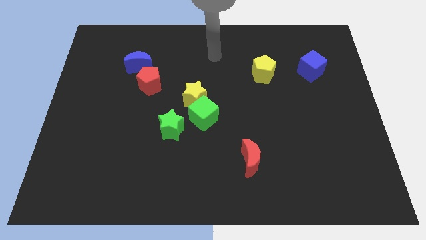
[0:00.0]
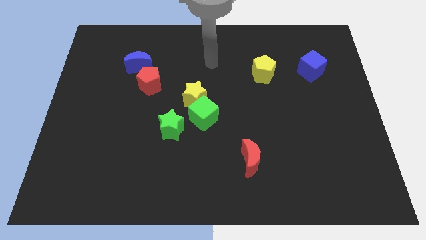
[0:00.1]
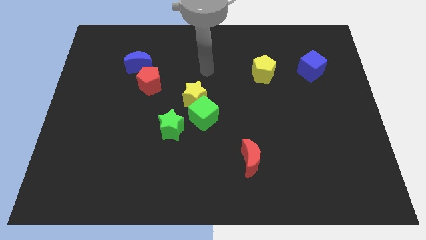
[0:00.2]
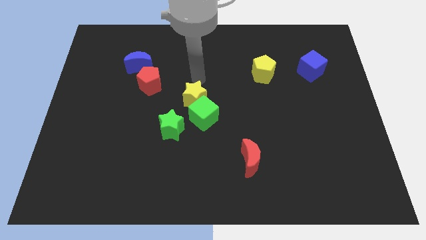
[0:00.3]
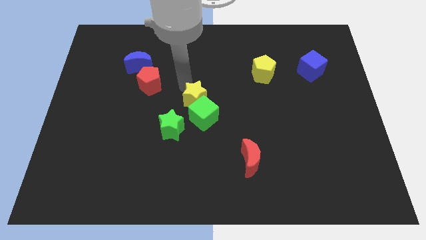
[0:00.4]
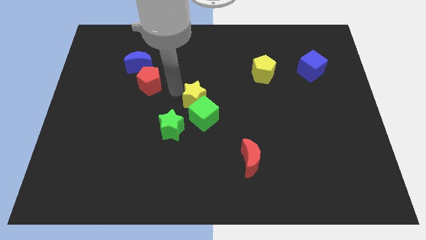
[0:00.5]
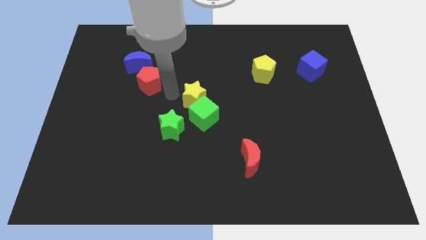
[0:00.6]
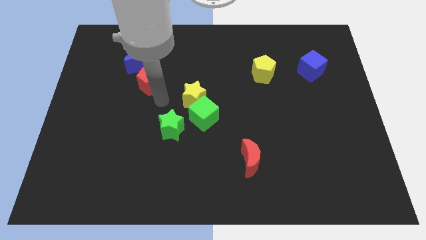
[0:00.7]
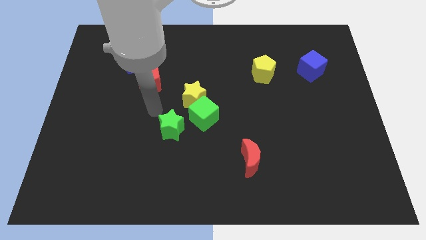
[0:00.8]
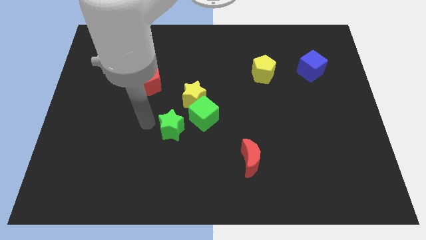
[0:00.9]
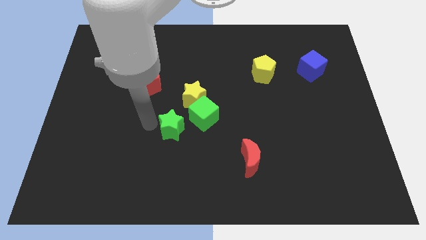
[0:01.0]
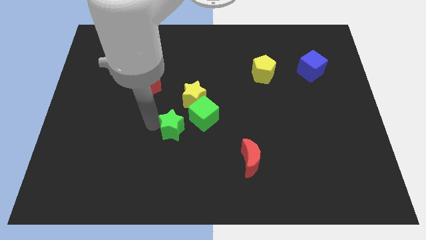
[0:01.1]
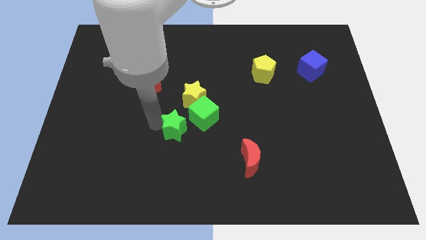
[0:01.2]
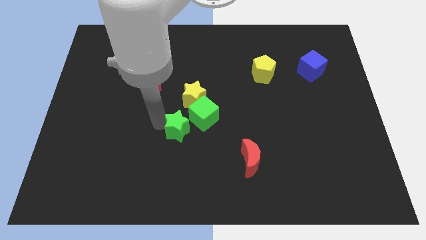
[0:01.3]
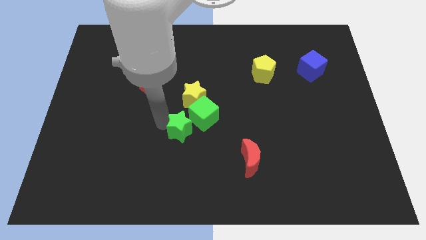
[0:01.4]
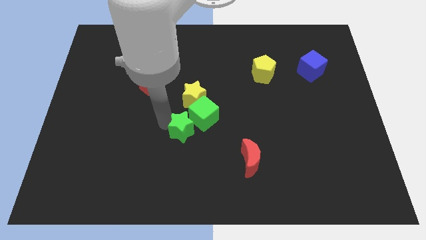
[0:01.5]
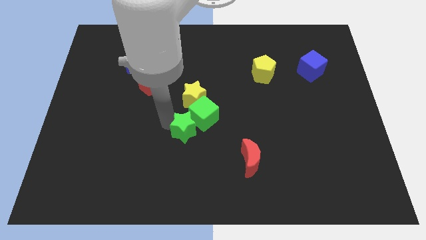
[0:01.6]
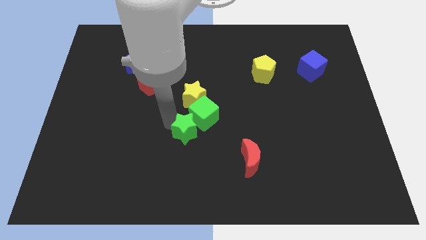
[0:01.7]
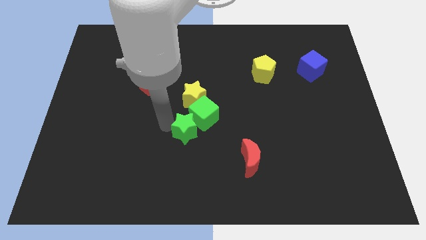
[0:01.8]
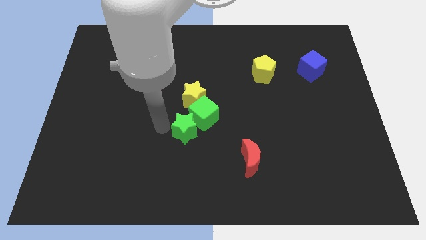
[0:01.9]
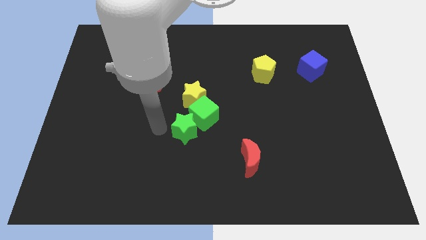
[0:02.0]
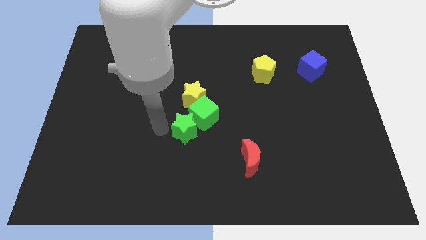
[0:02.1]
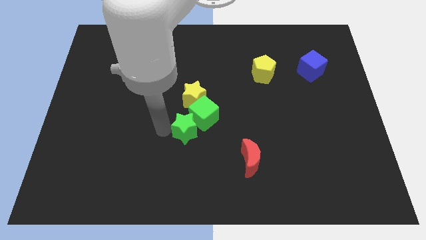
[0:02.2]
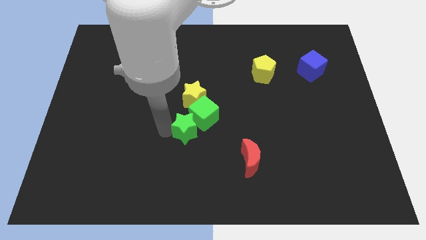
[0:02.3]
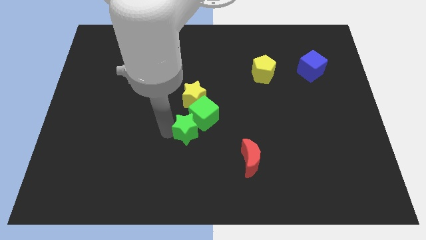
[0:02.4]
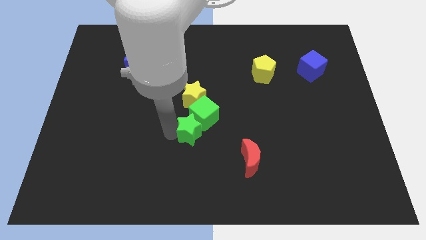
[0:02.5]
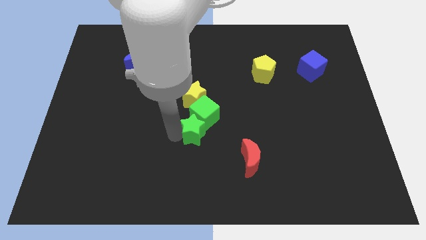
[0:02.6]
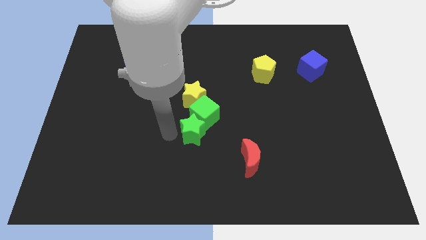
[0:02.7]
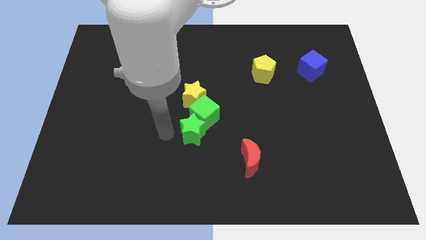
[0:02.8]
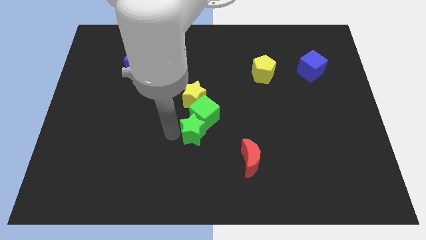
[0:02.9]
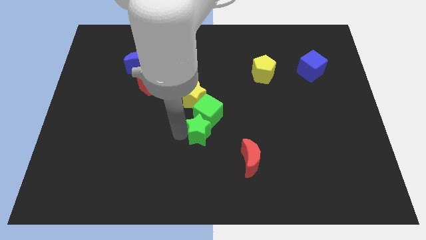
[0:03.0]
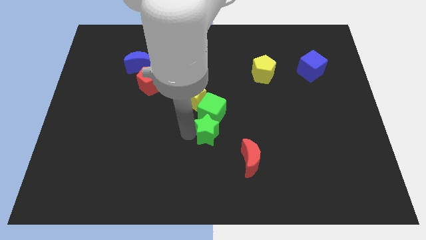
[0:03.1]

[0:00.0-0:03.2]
push the green star to the right slightly

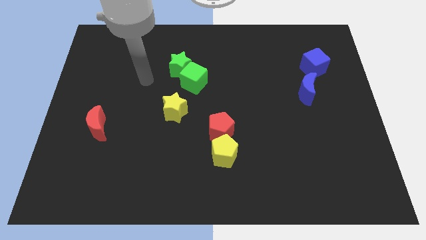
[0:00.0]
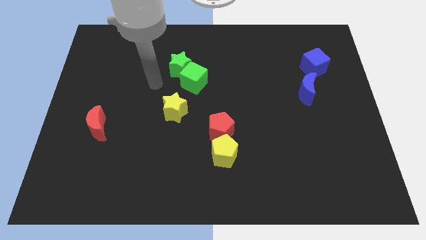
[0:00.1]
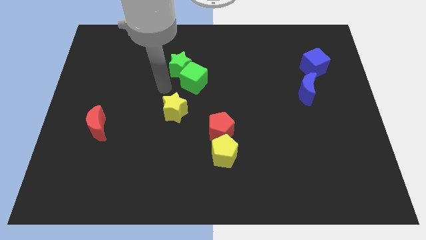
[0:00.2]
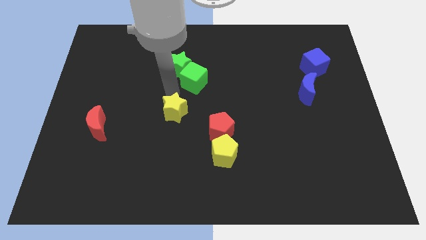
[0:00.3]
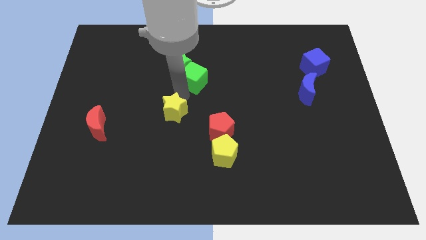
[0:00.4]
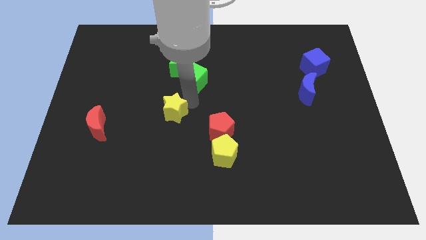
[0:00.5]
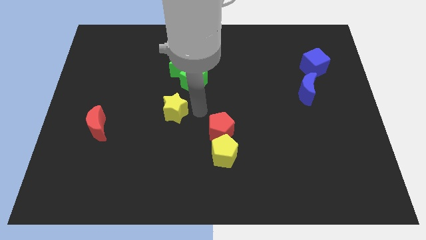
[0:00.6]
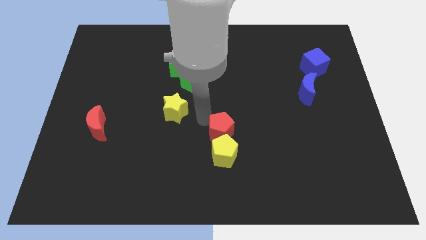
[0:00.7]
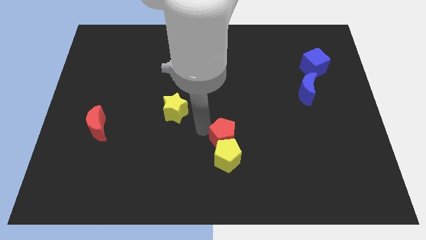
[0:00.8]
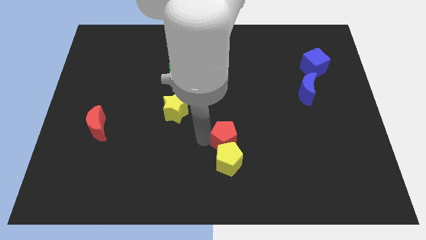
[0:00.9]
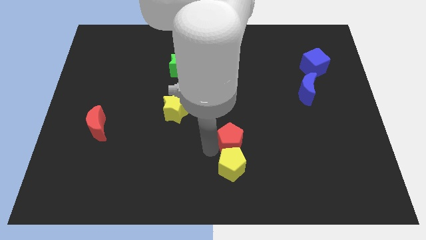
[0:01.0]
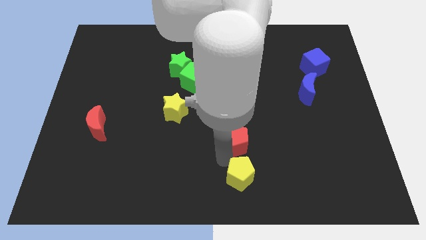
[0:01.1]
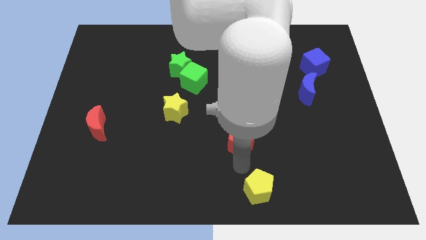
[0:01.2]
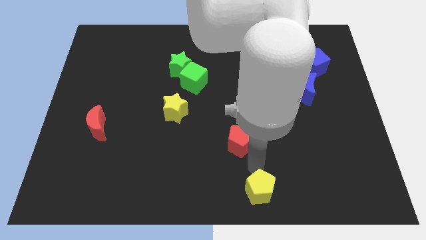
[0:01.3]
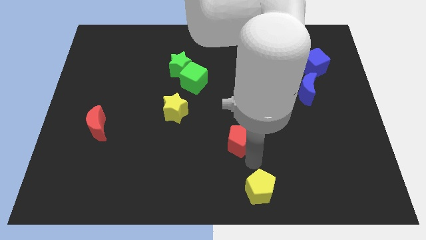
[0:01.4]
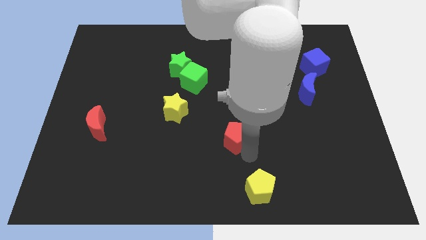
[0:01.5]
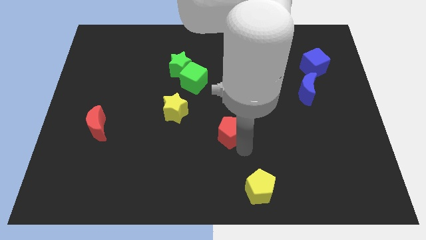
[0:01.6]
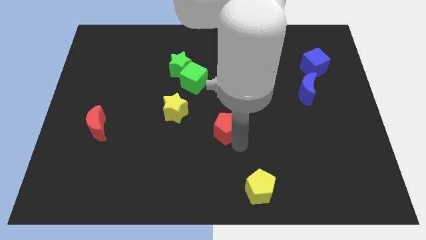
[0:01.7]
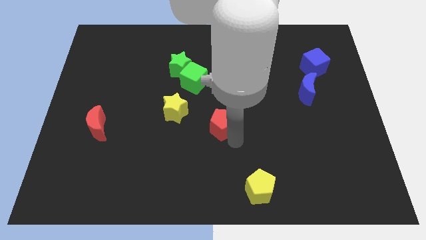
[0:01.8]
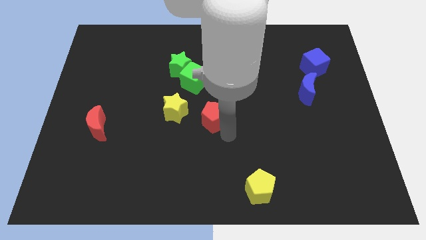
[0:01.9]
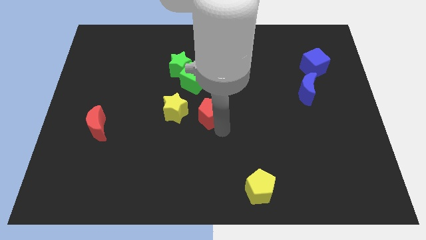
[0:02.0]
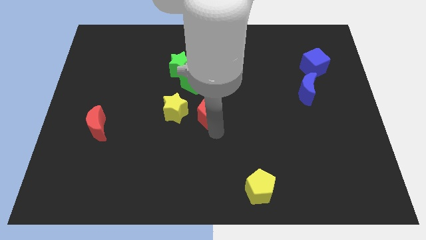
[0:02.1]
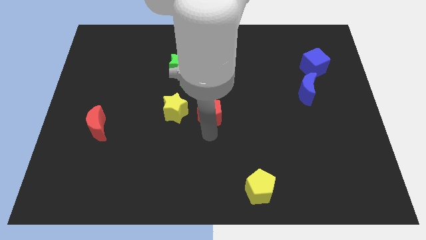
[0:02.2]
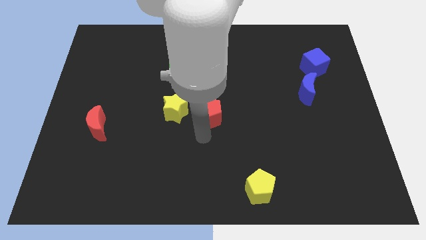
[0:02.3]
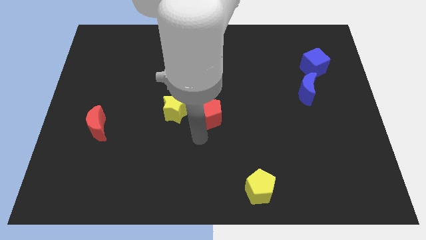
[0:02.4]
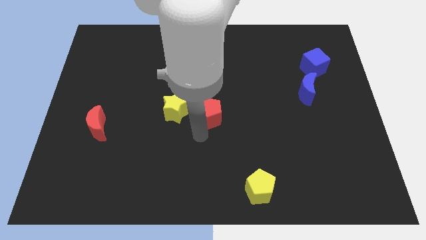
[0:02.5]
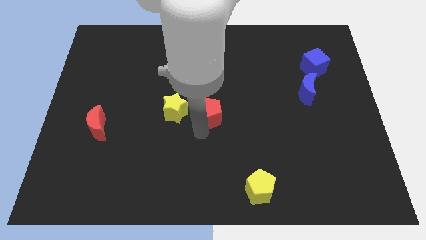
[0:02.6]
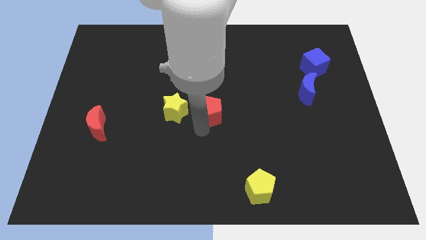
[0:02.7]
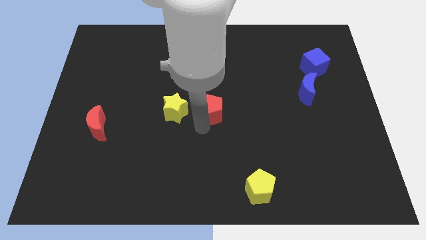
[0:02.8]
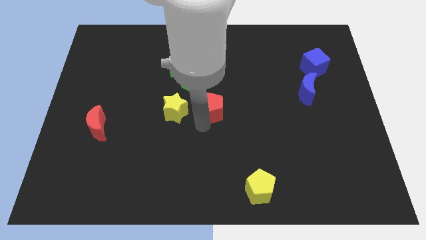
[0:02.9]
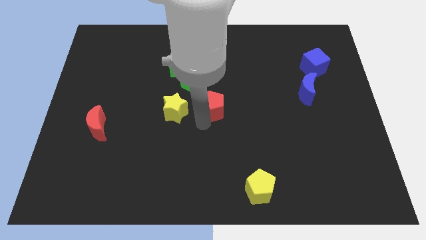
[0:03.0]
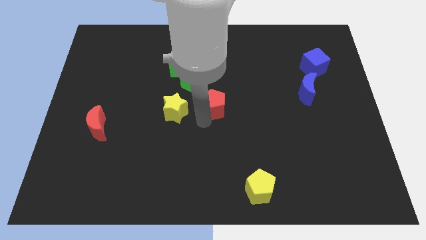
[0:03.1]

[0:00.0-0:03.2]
slide the red pentagon a little bit up

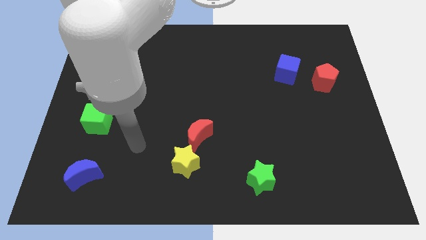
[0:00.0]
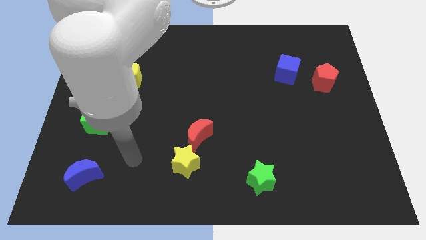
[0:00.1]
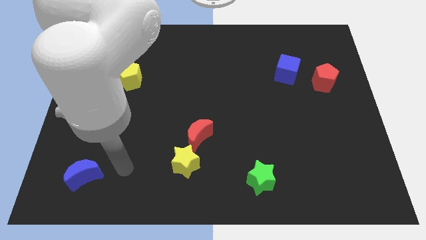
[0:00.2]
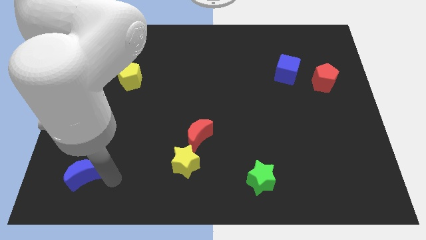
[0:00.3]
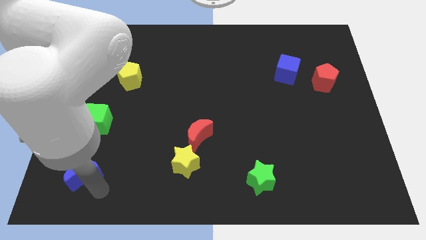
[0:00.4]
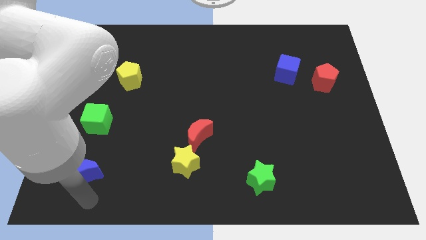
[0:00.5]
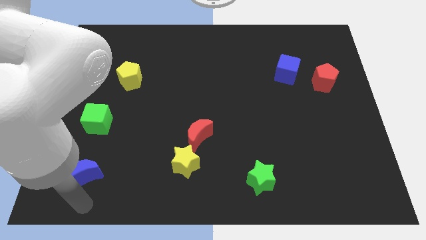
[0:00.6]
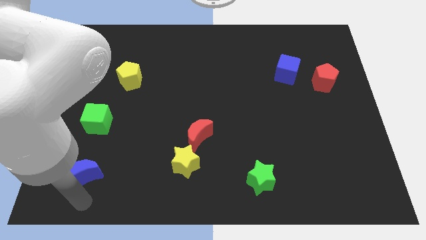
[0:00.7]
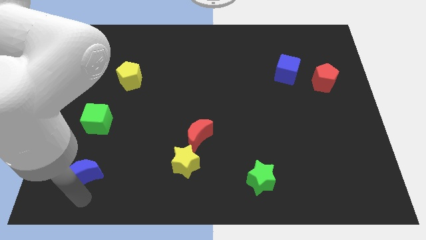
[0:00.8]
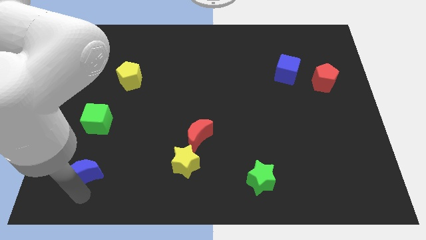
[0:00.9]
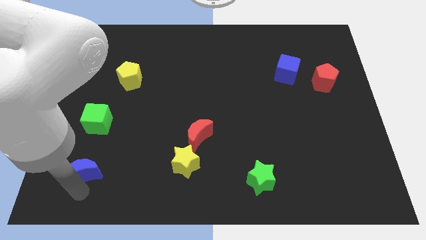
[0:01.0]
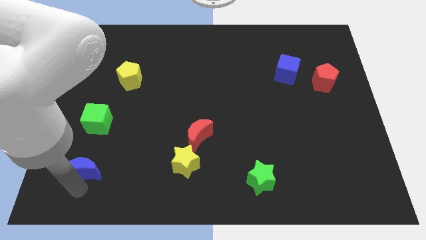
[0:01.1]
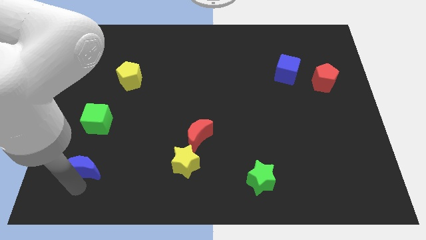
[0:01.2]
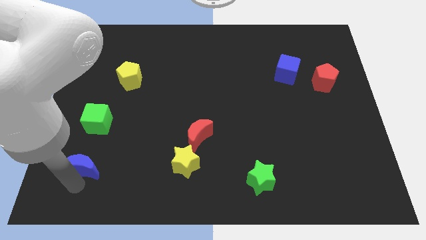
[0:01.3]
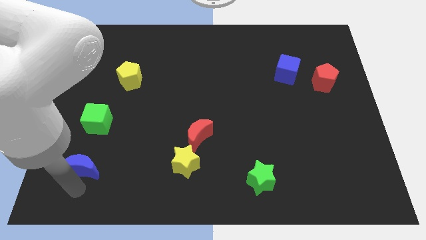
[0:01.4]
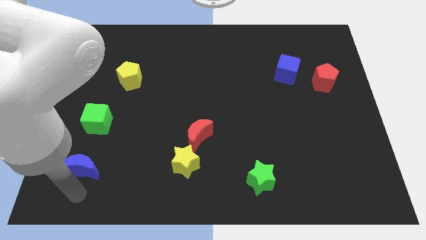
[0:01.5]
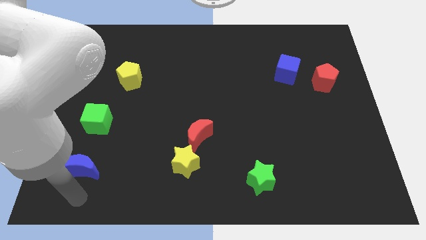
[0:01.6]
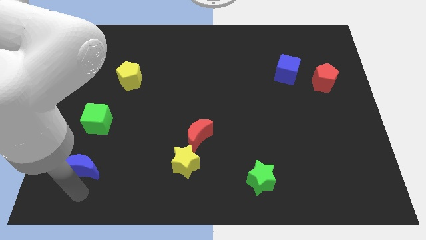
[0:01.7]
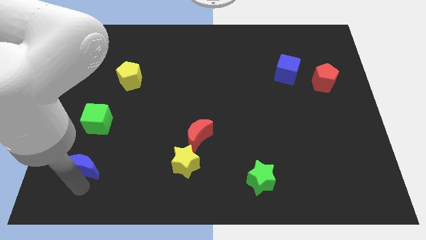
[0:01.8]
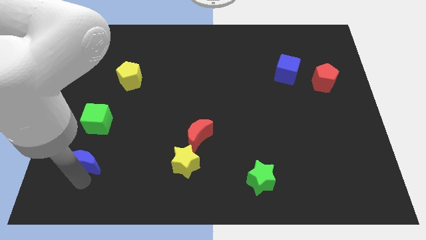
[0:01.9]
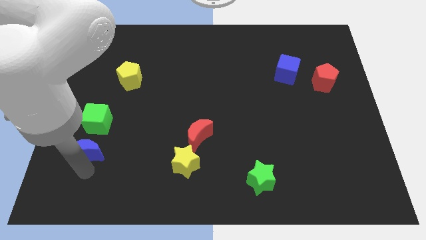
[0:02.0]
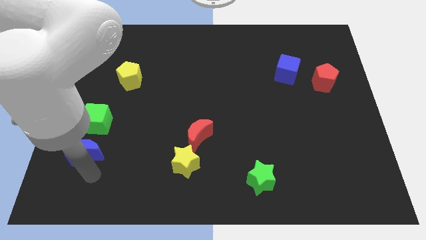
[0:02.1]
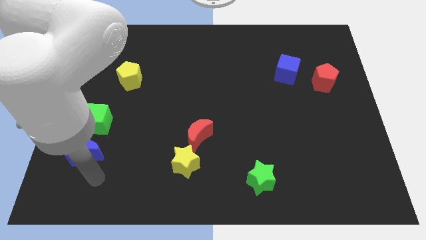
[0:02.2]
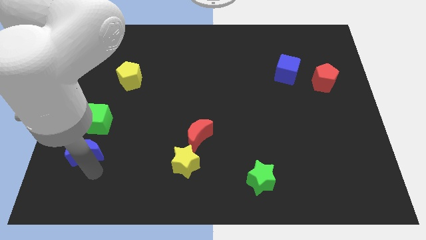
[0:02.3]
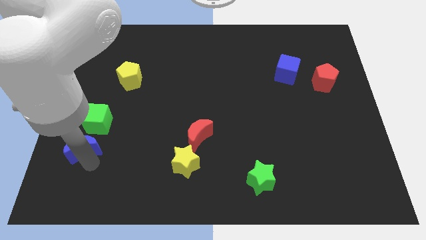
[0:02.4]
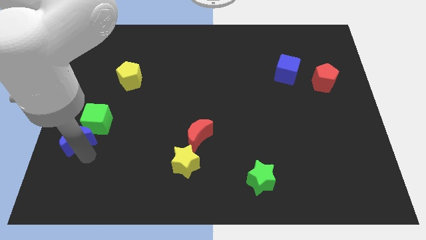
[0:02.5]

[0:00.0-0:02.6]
push the blue moon up slightly
